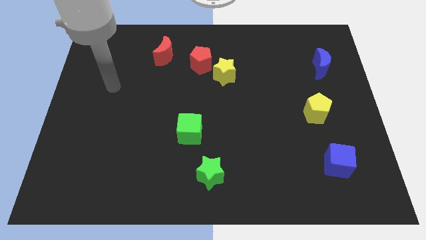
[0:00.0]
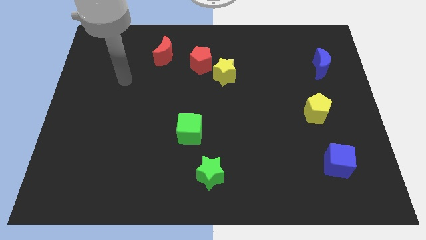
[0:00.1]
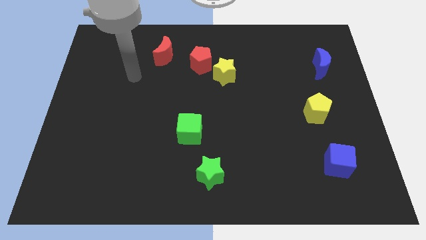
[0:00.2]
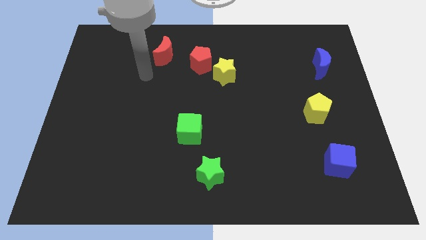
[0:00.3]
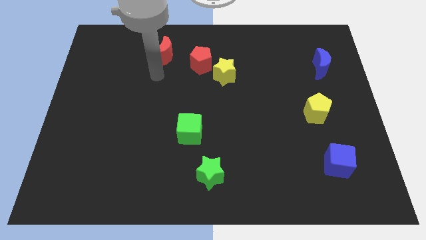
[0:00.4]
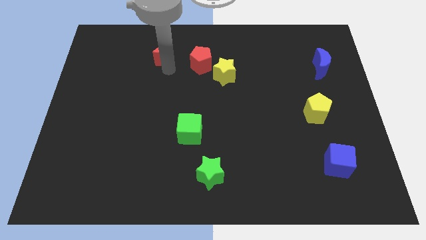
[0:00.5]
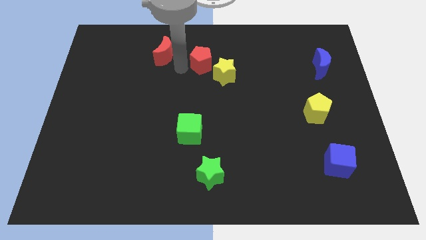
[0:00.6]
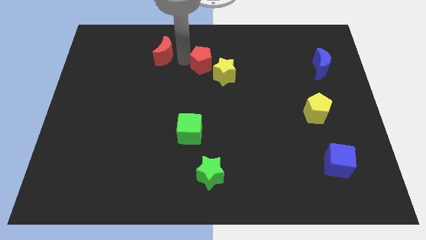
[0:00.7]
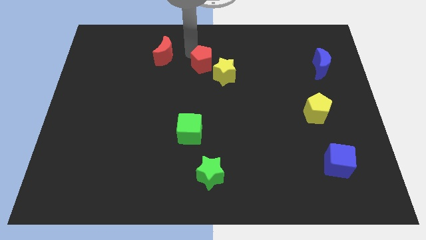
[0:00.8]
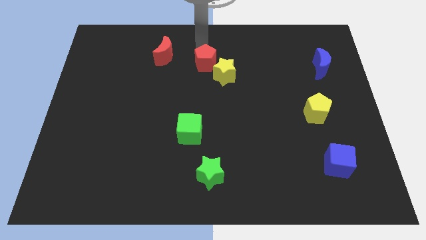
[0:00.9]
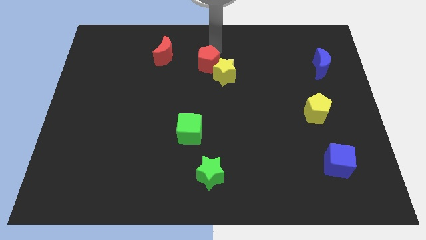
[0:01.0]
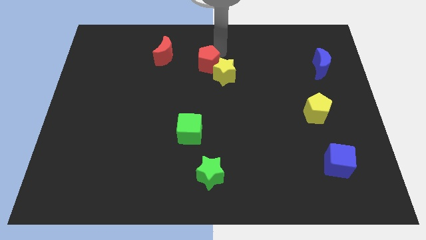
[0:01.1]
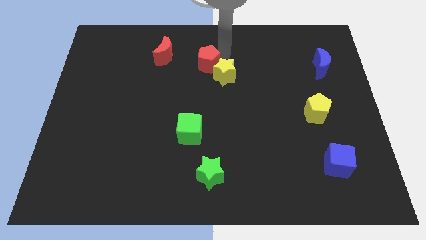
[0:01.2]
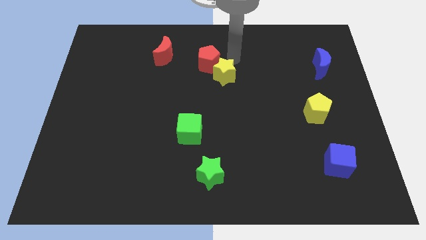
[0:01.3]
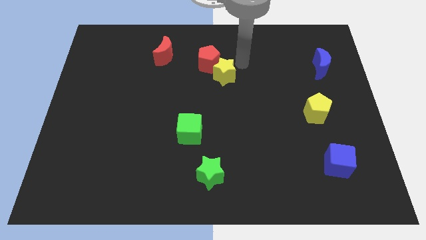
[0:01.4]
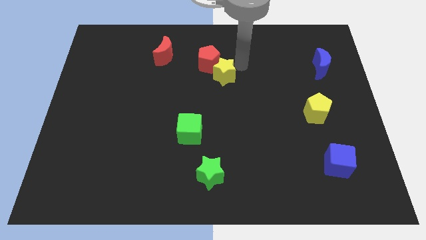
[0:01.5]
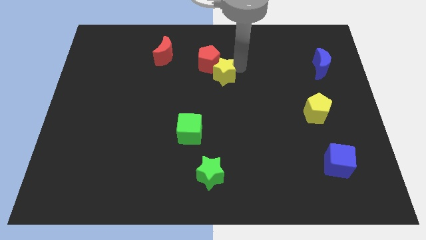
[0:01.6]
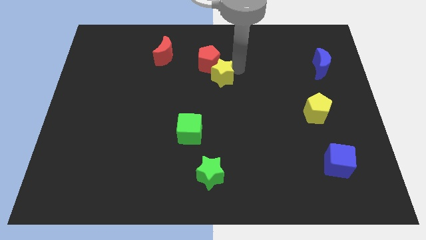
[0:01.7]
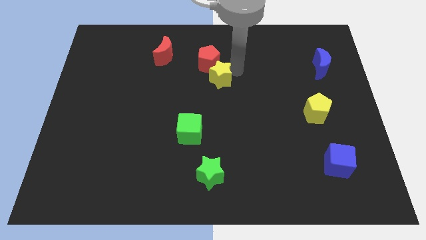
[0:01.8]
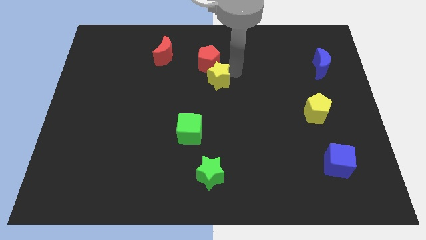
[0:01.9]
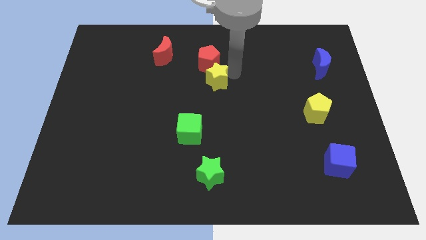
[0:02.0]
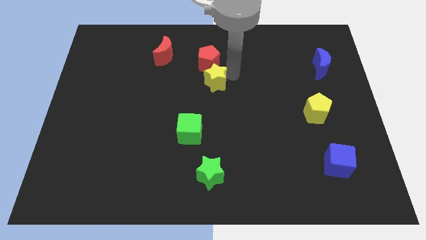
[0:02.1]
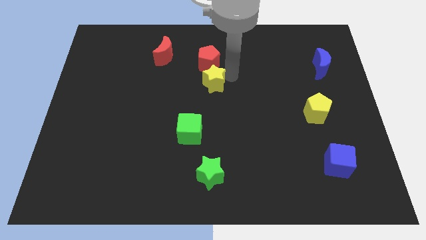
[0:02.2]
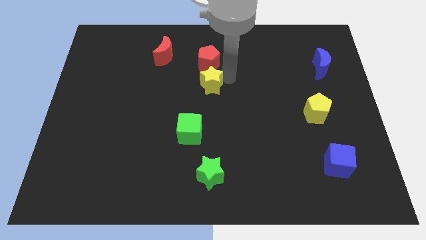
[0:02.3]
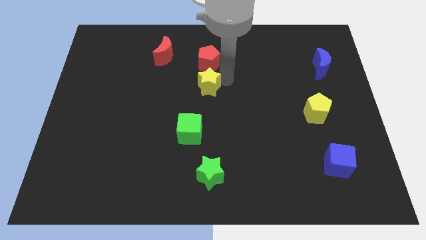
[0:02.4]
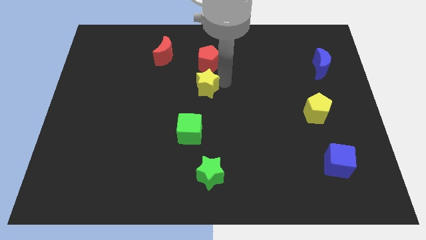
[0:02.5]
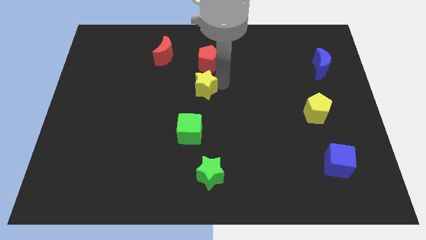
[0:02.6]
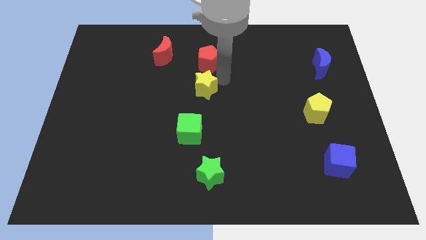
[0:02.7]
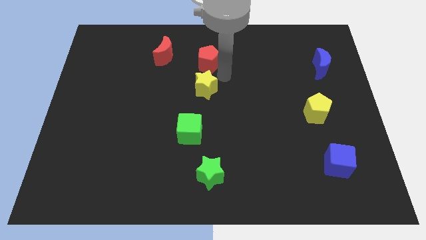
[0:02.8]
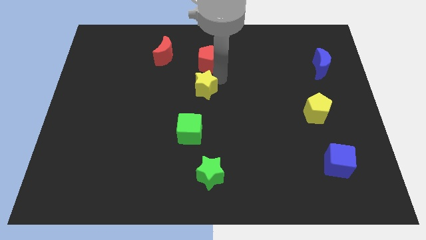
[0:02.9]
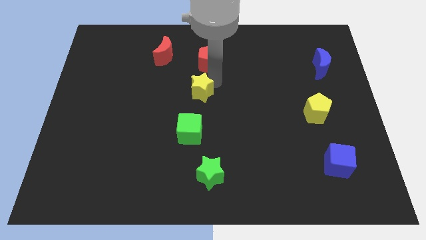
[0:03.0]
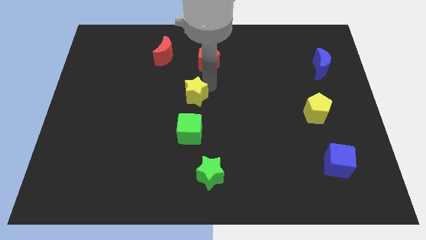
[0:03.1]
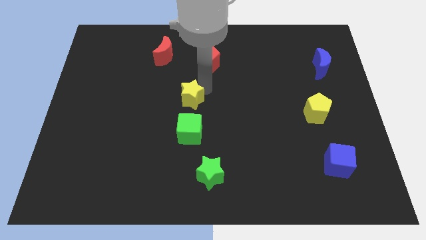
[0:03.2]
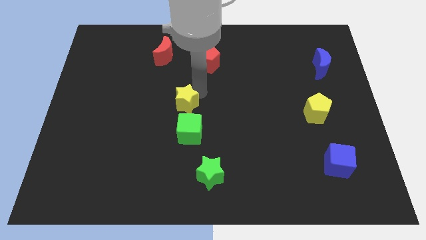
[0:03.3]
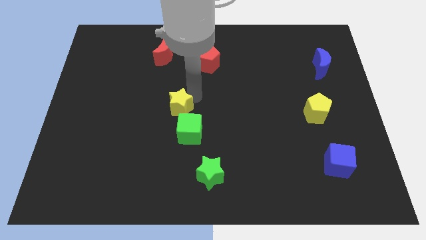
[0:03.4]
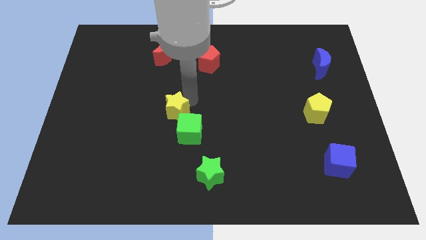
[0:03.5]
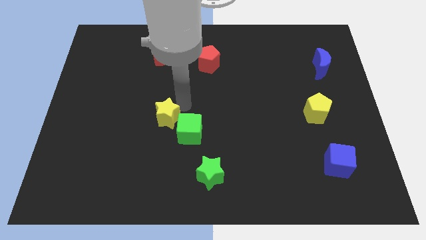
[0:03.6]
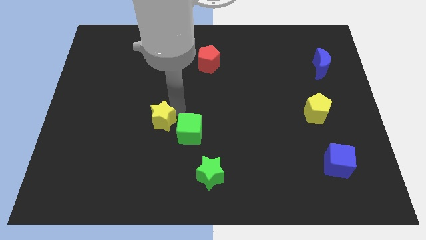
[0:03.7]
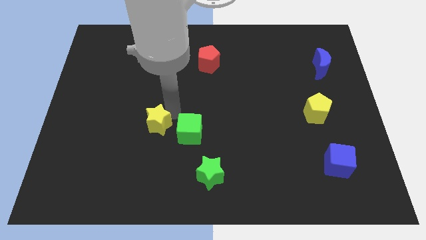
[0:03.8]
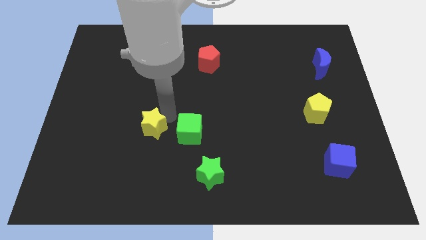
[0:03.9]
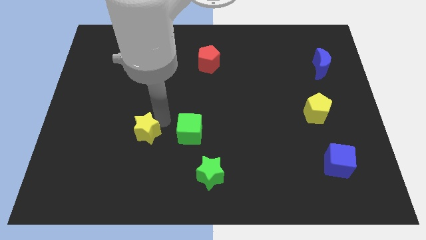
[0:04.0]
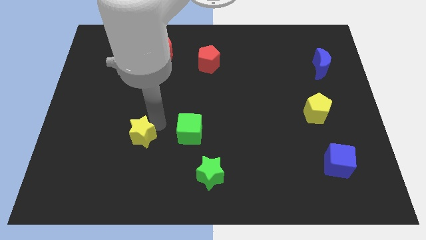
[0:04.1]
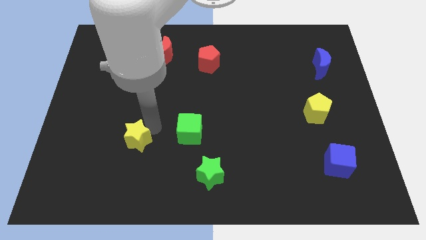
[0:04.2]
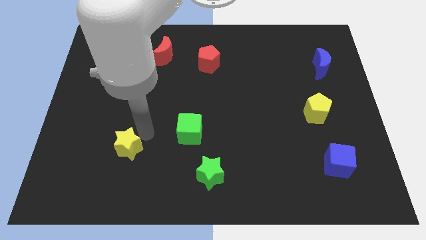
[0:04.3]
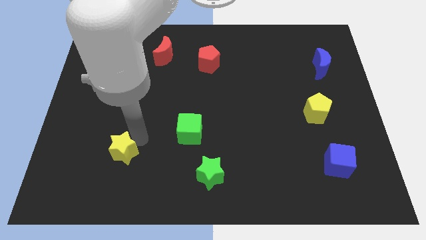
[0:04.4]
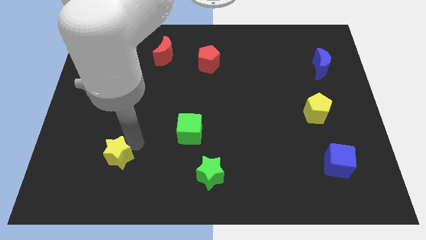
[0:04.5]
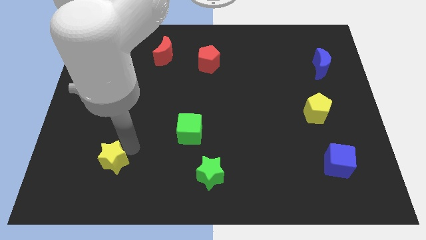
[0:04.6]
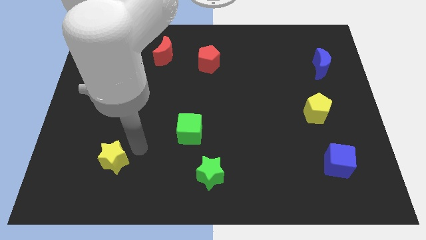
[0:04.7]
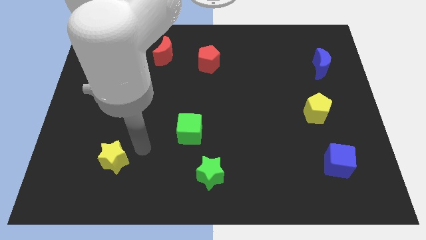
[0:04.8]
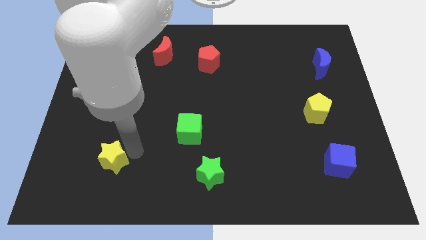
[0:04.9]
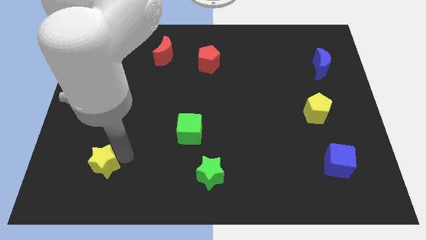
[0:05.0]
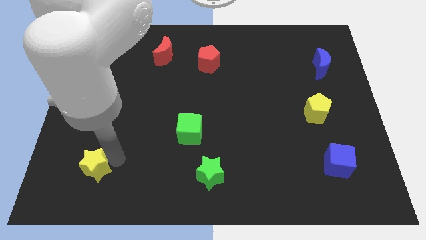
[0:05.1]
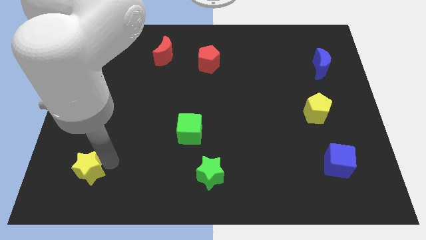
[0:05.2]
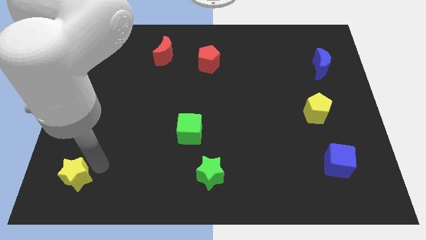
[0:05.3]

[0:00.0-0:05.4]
move the yellow star to the bottom left

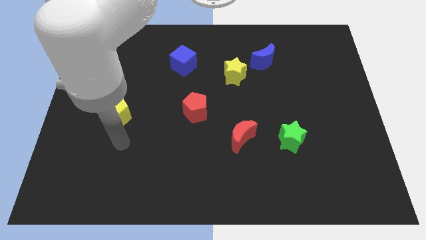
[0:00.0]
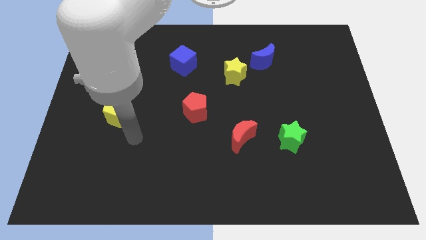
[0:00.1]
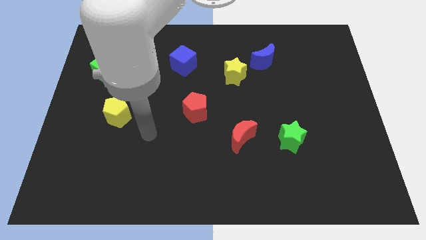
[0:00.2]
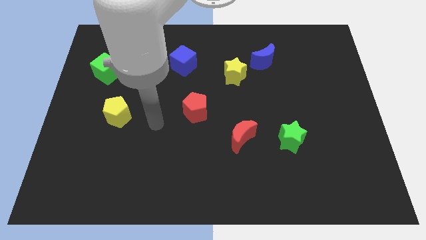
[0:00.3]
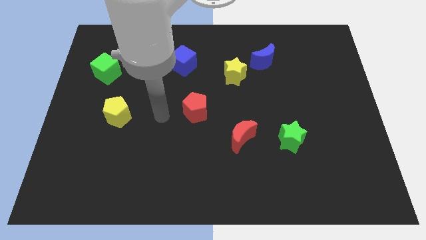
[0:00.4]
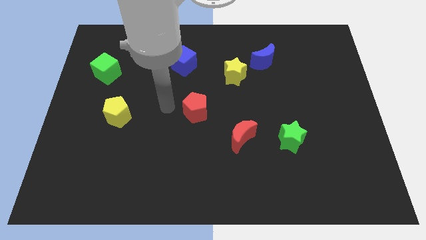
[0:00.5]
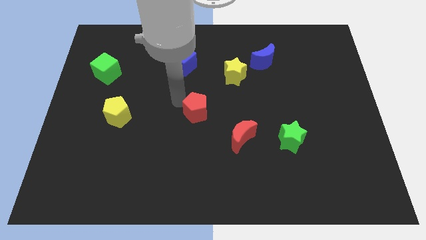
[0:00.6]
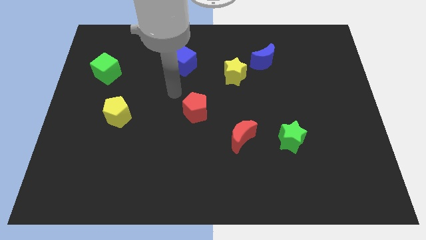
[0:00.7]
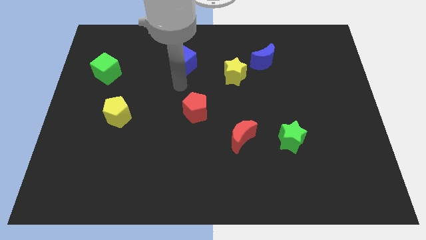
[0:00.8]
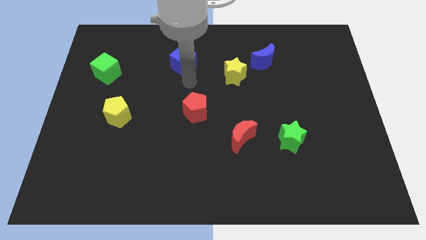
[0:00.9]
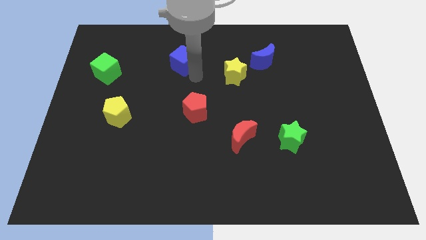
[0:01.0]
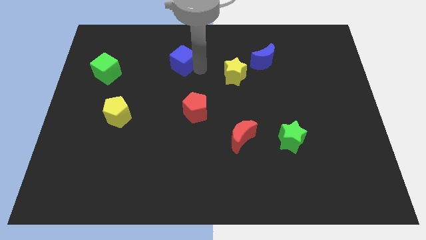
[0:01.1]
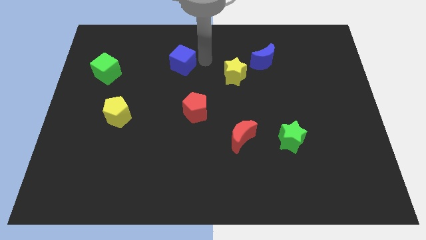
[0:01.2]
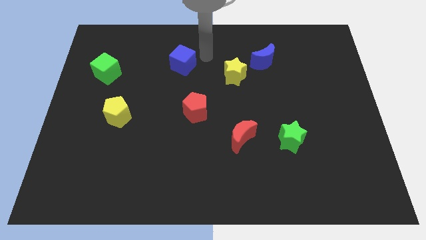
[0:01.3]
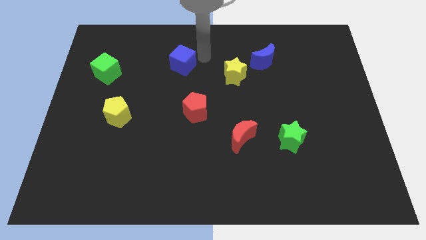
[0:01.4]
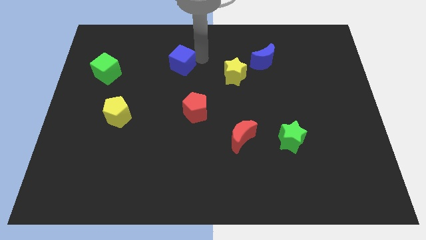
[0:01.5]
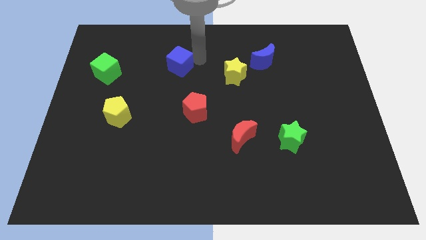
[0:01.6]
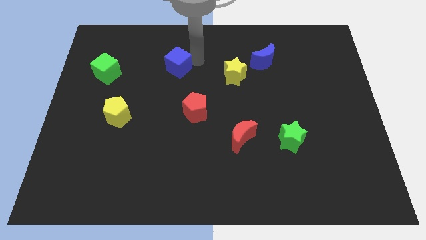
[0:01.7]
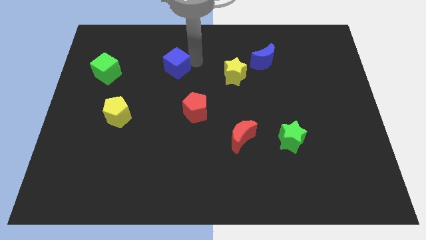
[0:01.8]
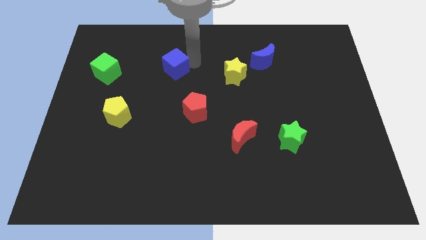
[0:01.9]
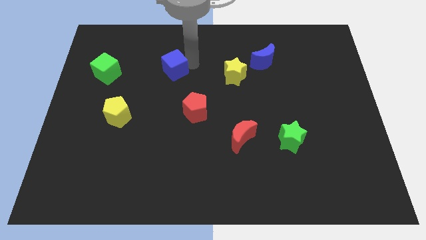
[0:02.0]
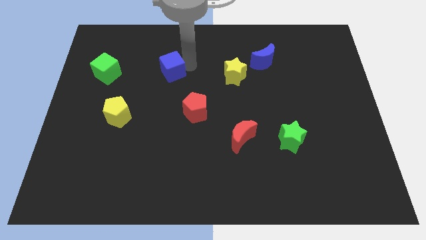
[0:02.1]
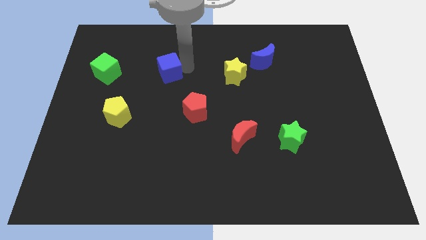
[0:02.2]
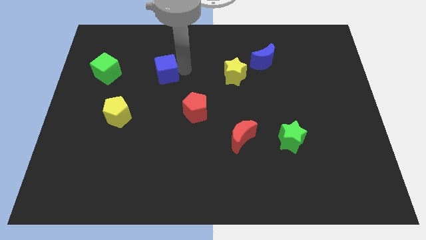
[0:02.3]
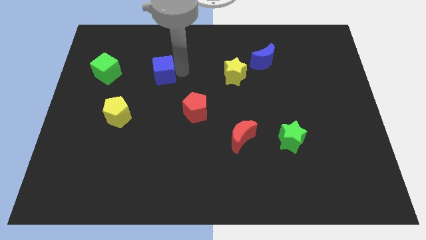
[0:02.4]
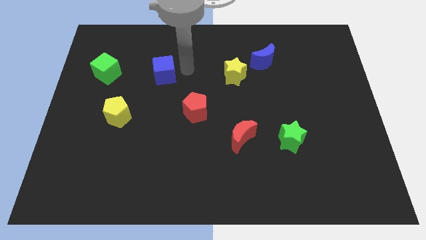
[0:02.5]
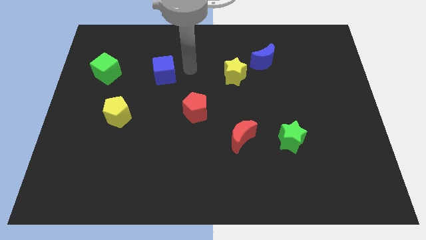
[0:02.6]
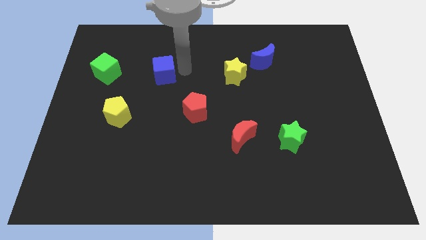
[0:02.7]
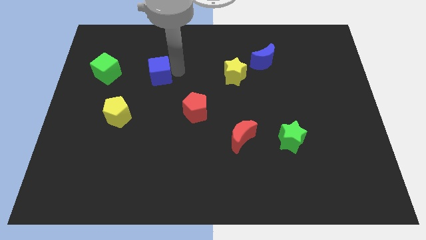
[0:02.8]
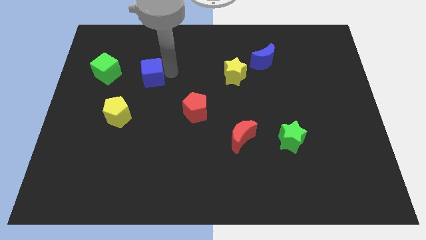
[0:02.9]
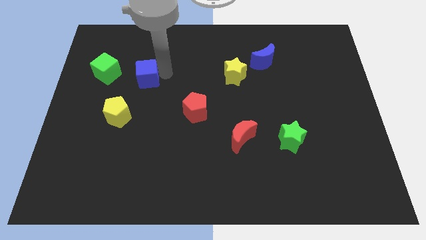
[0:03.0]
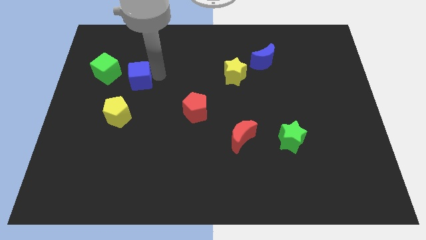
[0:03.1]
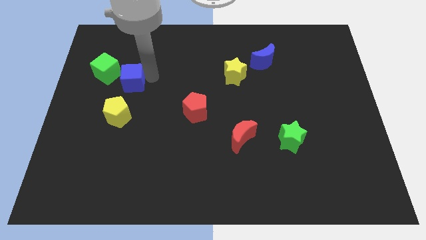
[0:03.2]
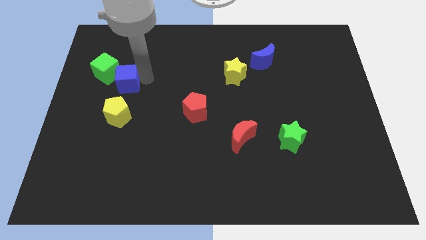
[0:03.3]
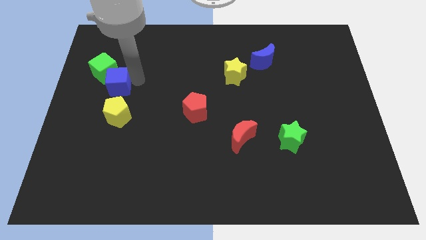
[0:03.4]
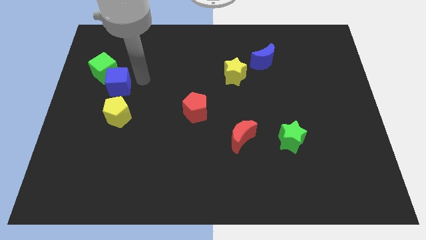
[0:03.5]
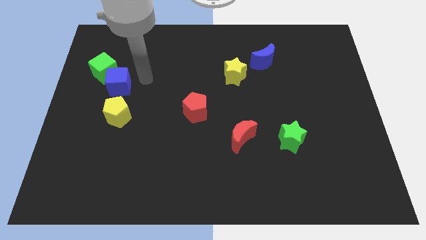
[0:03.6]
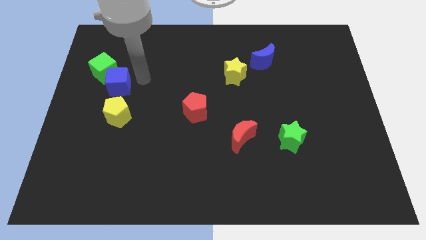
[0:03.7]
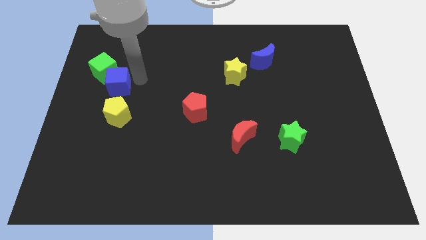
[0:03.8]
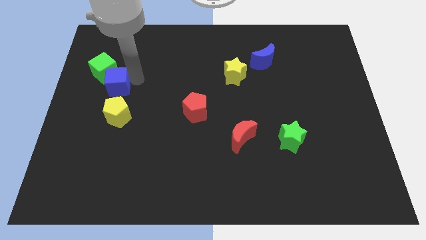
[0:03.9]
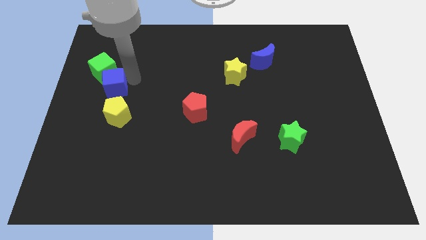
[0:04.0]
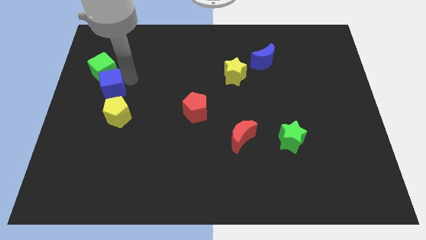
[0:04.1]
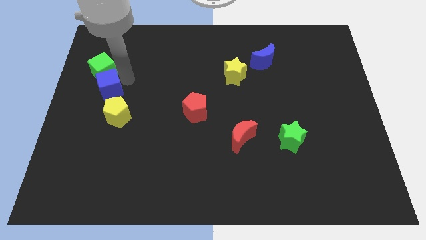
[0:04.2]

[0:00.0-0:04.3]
slide the blue cube to the center left
